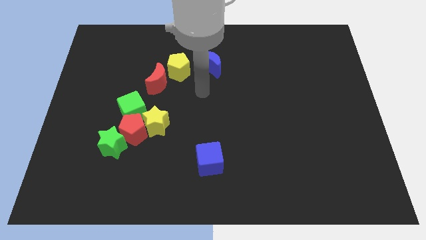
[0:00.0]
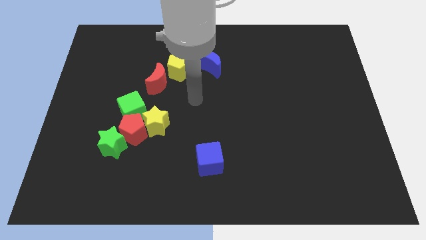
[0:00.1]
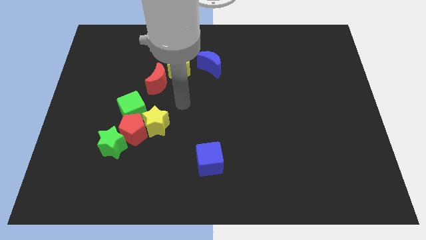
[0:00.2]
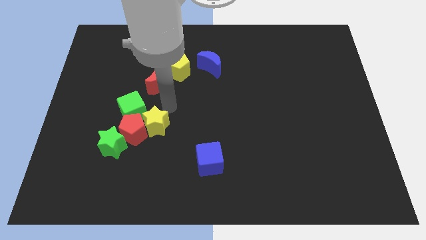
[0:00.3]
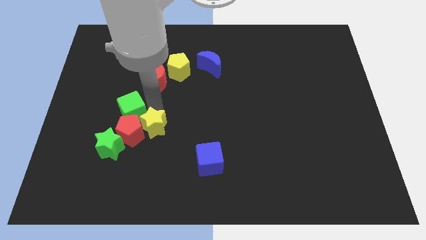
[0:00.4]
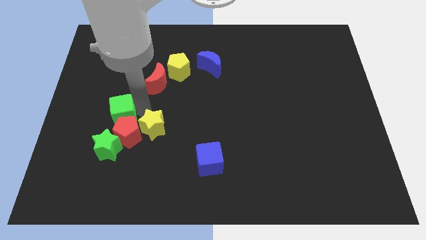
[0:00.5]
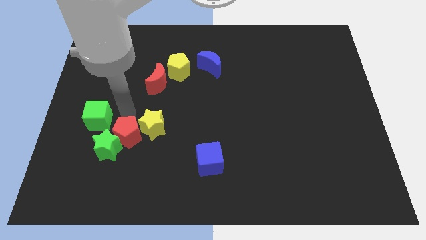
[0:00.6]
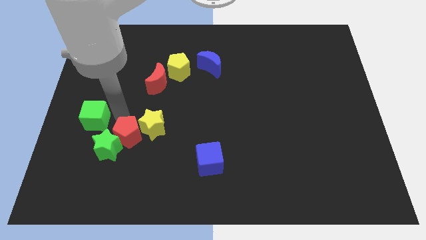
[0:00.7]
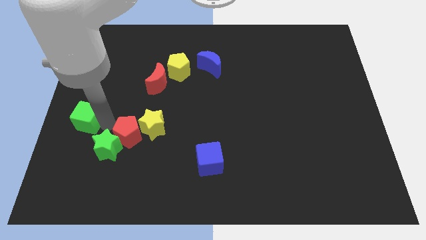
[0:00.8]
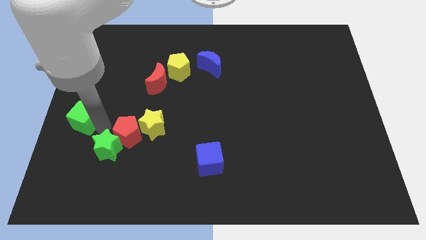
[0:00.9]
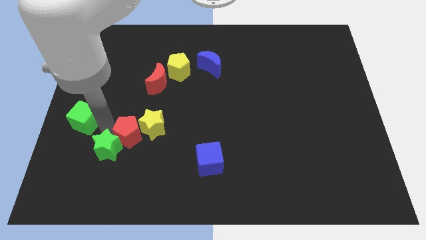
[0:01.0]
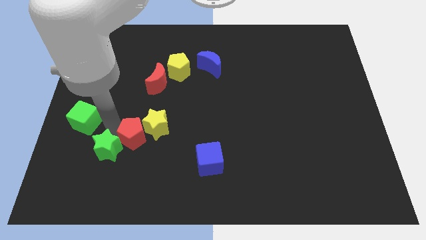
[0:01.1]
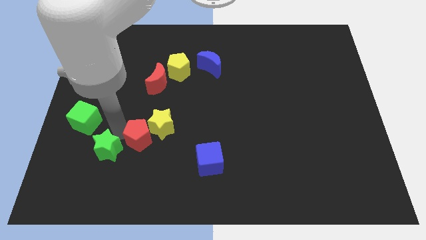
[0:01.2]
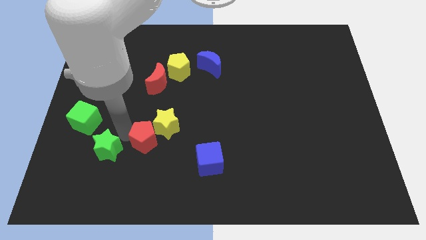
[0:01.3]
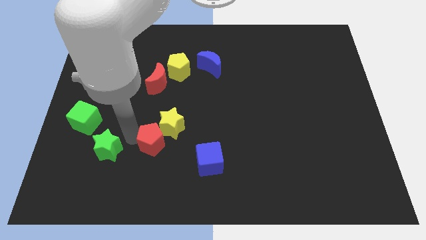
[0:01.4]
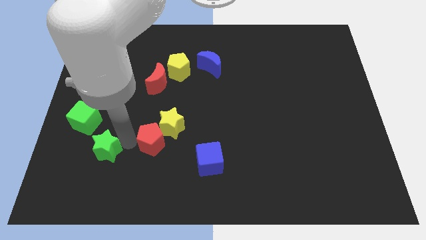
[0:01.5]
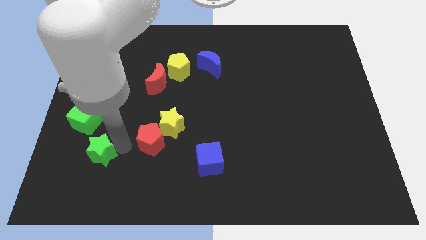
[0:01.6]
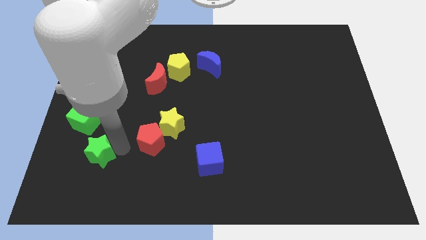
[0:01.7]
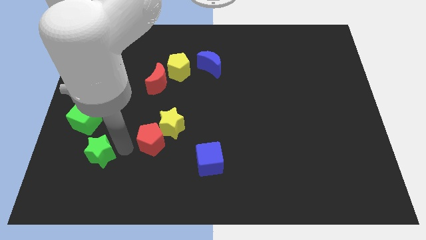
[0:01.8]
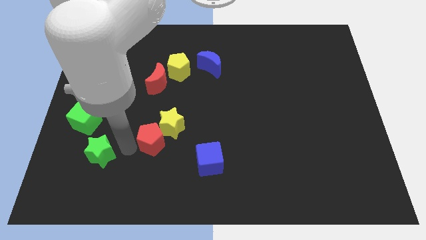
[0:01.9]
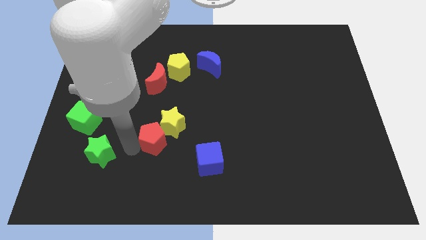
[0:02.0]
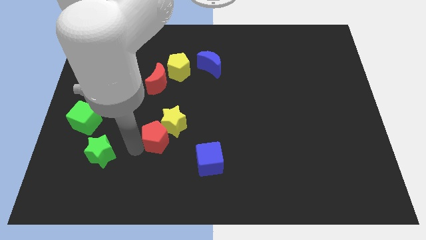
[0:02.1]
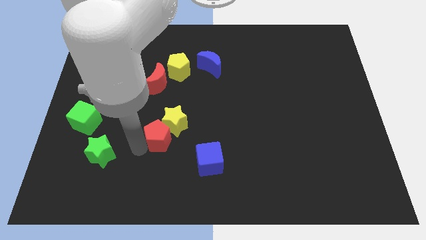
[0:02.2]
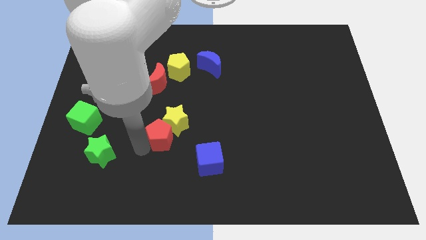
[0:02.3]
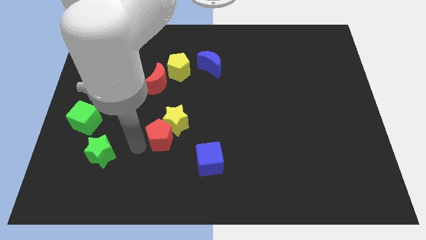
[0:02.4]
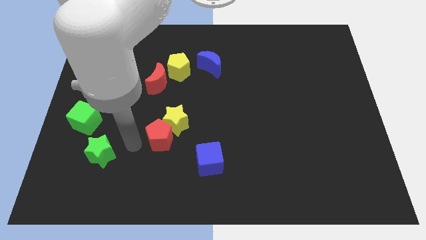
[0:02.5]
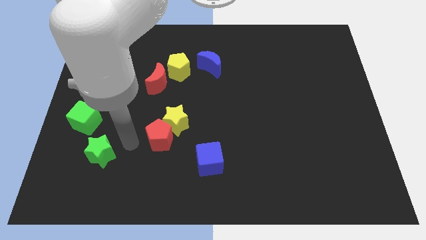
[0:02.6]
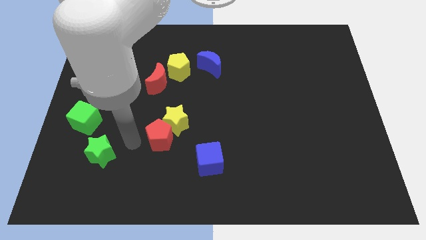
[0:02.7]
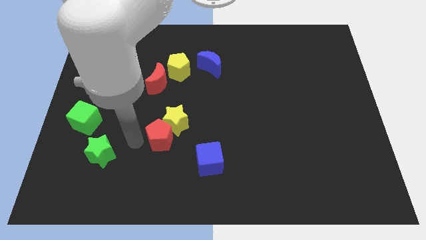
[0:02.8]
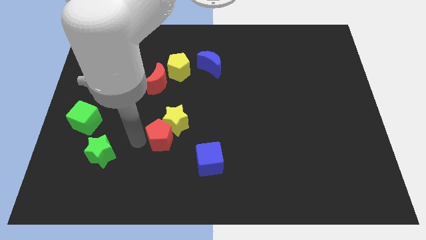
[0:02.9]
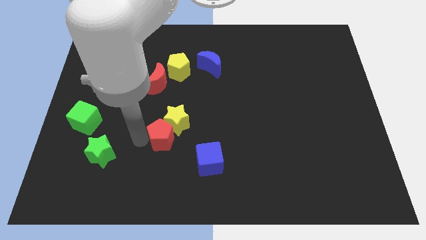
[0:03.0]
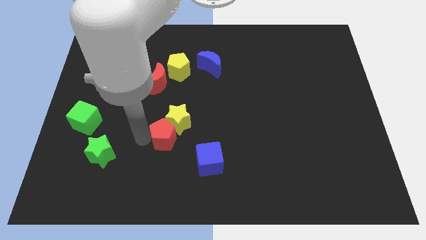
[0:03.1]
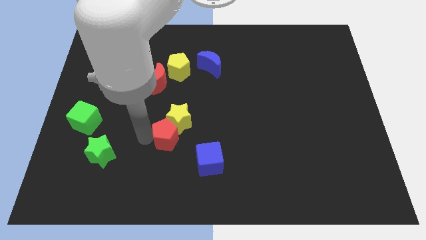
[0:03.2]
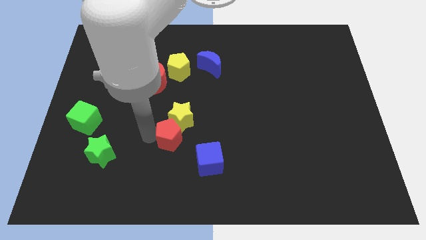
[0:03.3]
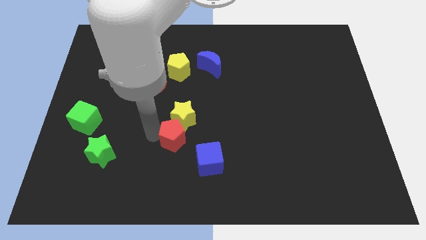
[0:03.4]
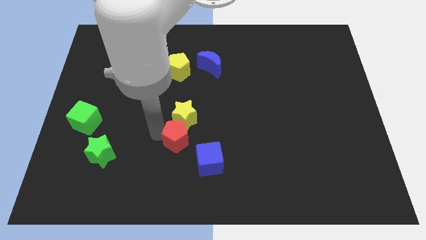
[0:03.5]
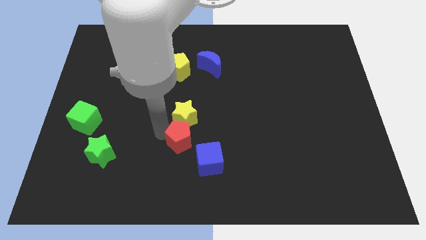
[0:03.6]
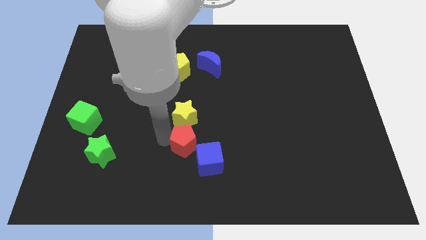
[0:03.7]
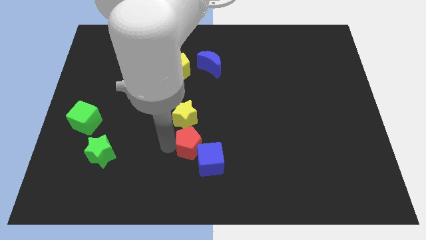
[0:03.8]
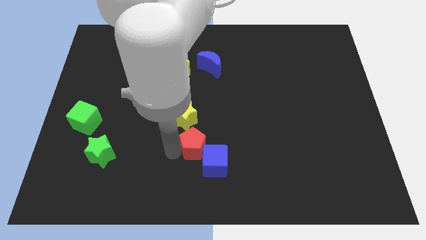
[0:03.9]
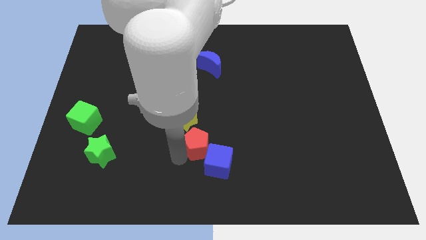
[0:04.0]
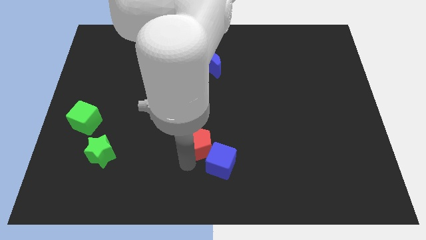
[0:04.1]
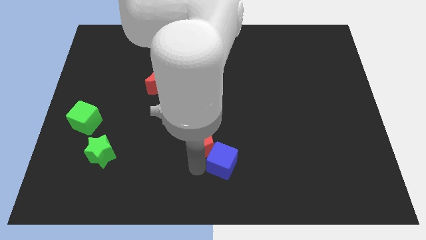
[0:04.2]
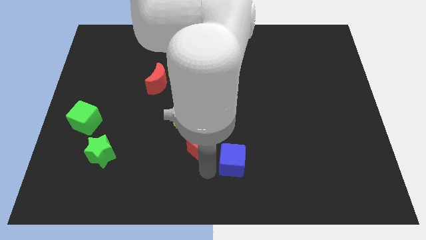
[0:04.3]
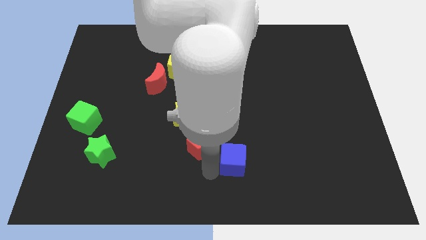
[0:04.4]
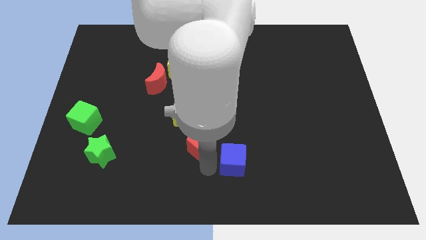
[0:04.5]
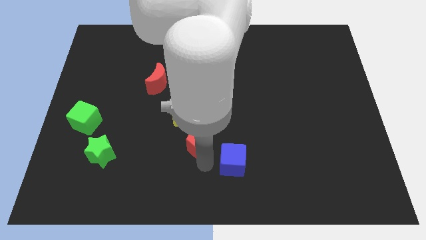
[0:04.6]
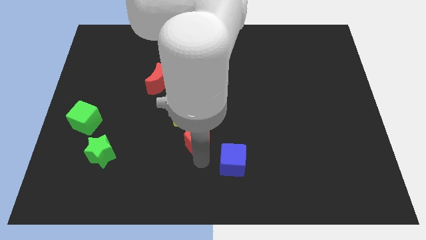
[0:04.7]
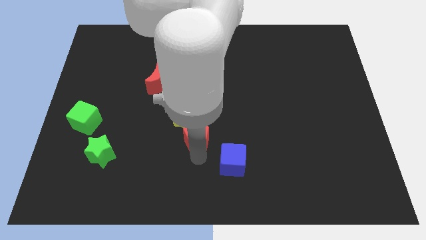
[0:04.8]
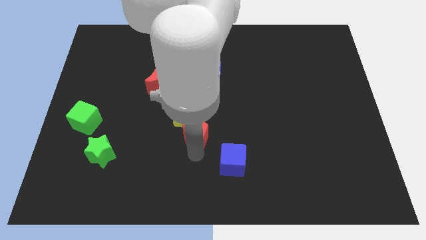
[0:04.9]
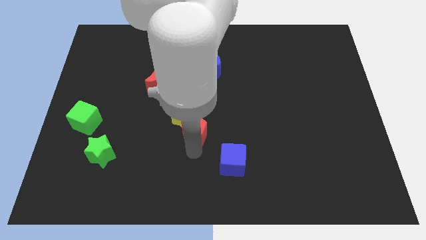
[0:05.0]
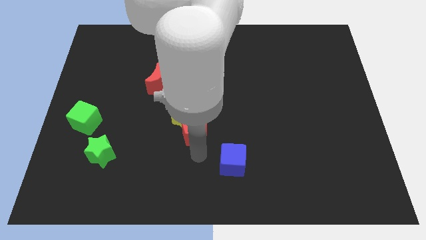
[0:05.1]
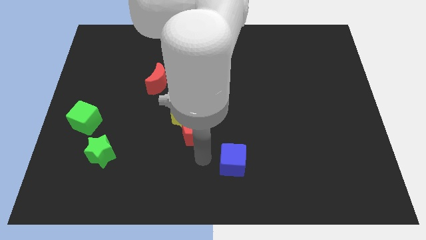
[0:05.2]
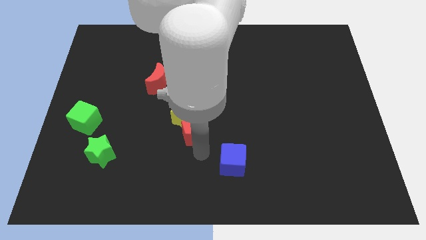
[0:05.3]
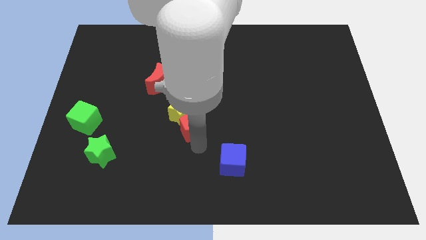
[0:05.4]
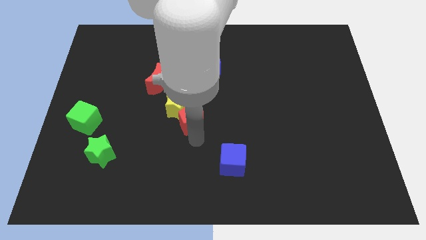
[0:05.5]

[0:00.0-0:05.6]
move the red pentagon slightly diagonally upwards and to the right

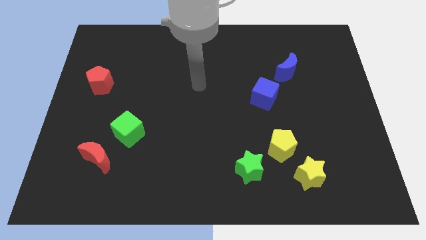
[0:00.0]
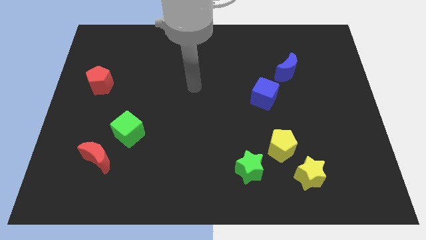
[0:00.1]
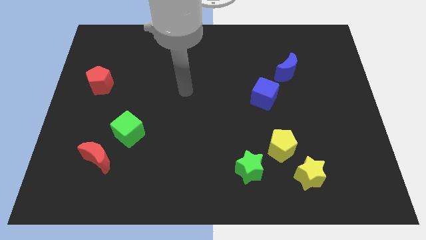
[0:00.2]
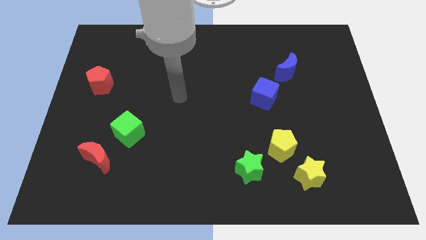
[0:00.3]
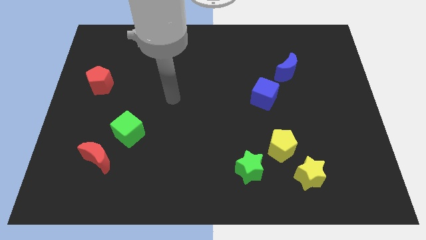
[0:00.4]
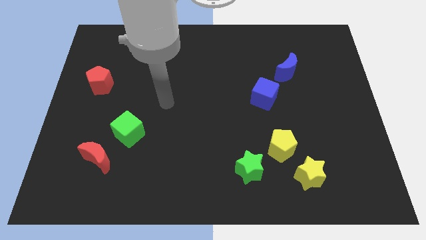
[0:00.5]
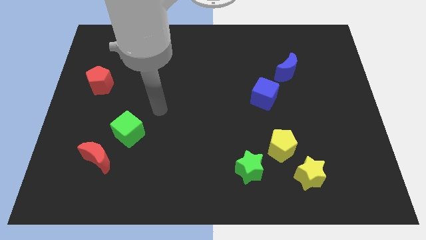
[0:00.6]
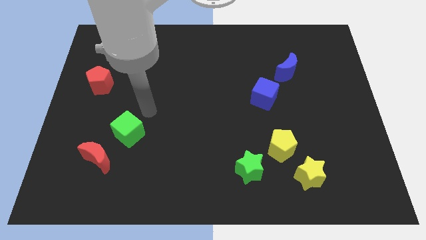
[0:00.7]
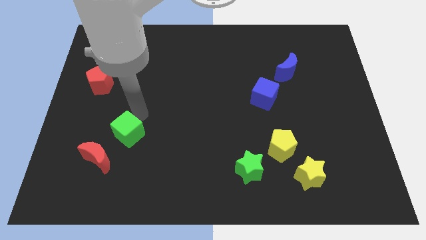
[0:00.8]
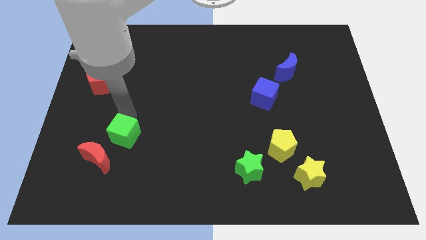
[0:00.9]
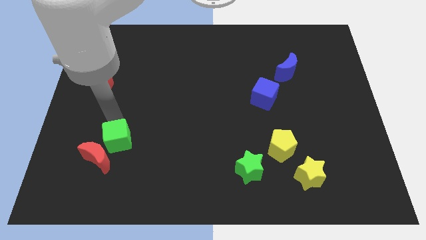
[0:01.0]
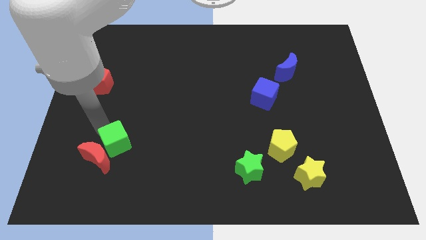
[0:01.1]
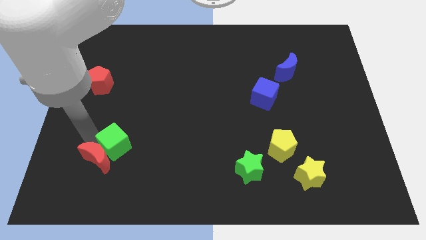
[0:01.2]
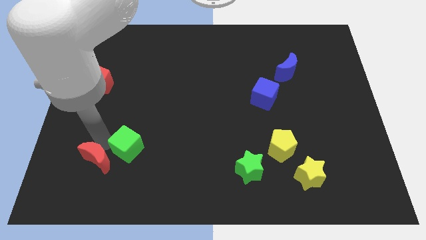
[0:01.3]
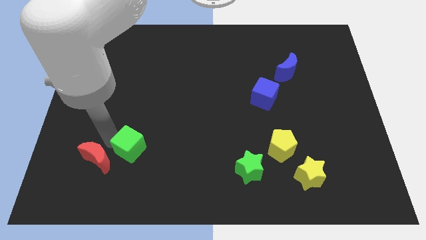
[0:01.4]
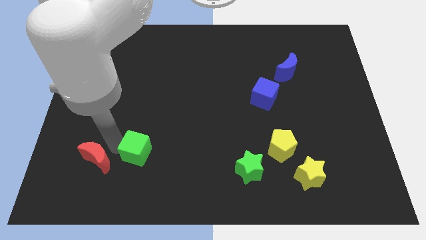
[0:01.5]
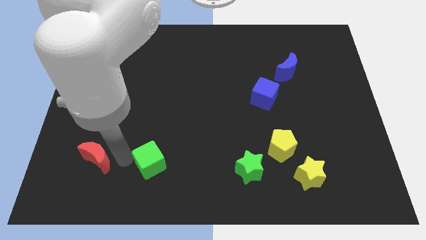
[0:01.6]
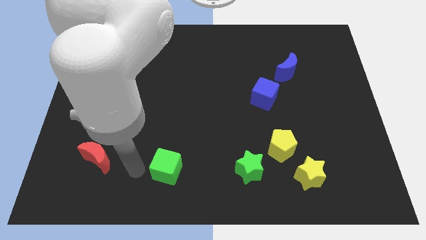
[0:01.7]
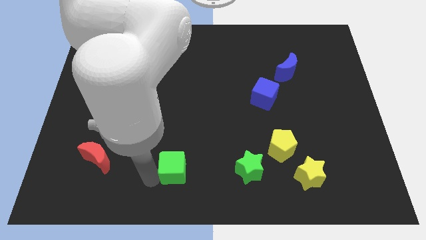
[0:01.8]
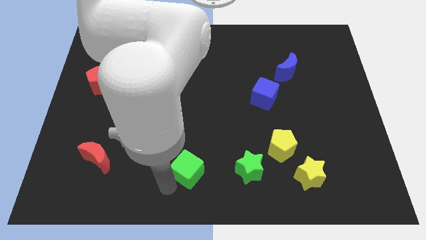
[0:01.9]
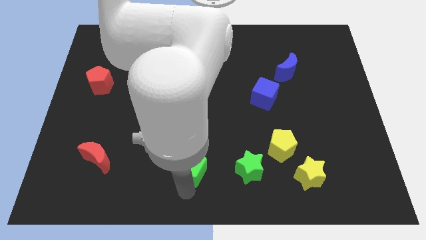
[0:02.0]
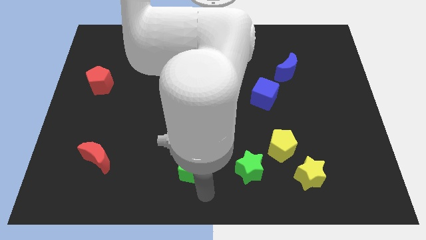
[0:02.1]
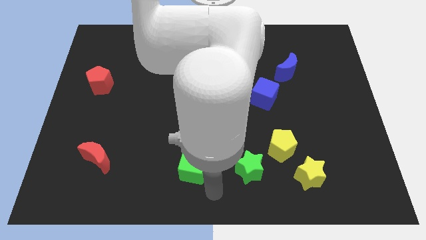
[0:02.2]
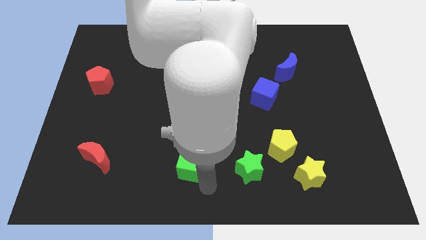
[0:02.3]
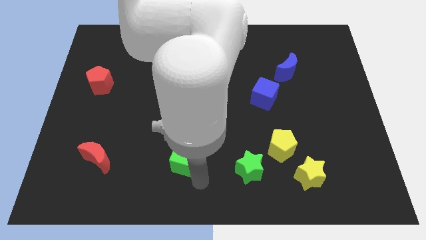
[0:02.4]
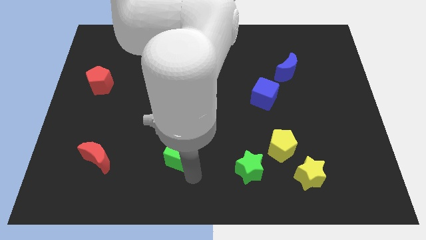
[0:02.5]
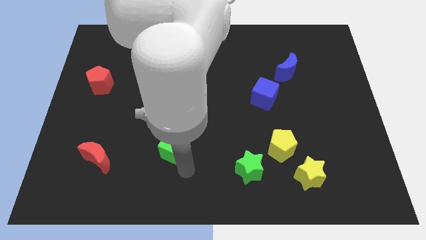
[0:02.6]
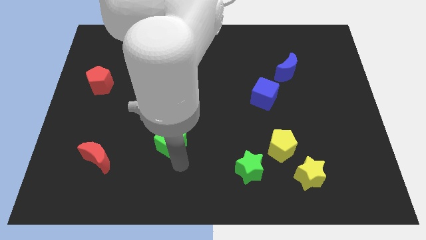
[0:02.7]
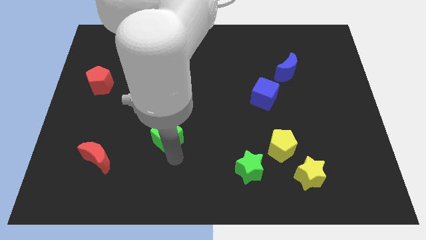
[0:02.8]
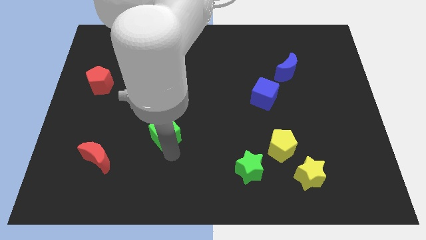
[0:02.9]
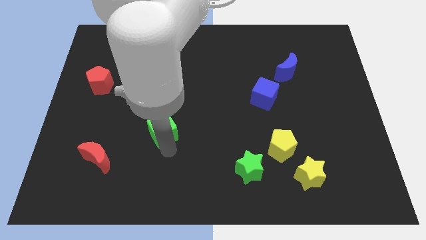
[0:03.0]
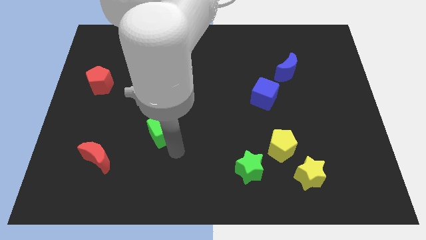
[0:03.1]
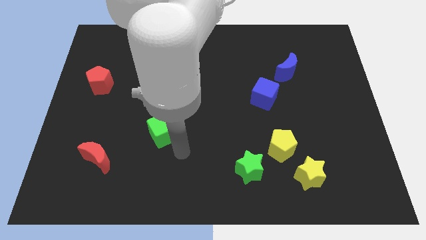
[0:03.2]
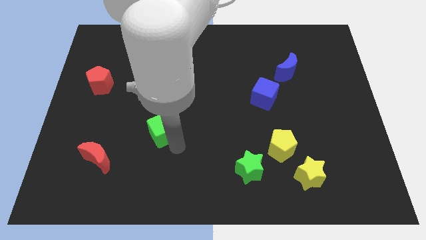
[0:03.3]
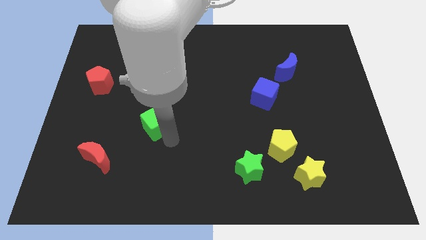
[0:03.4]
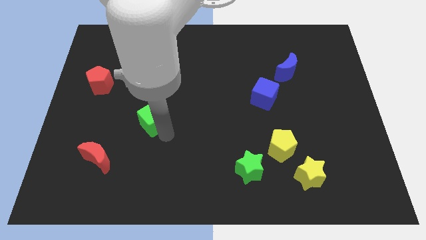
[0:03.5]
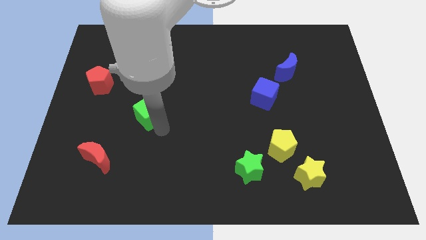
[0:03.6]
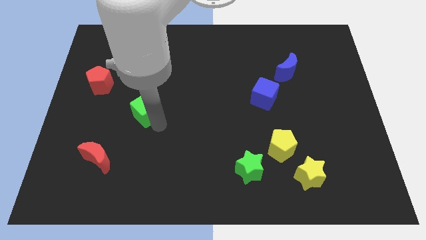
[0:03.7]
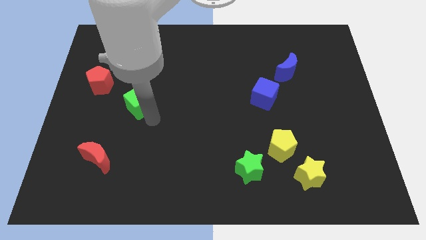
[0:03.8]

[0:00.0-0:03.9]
move the green cube upwards a little
